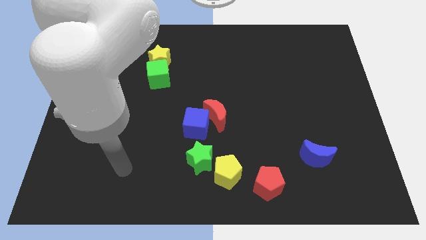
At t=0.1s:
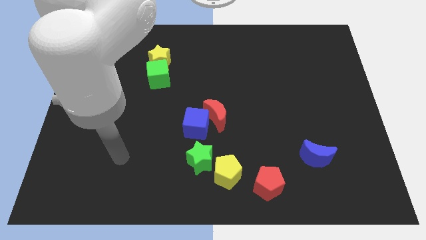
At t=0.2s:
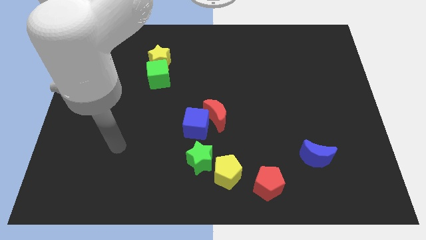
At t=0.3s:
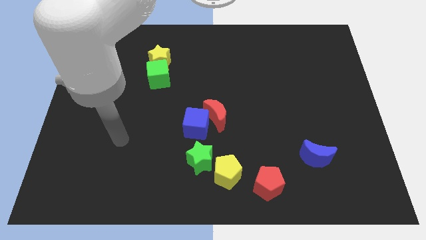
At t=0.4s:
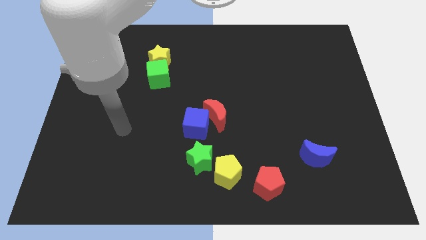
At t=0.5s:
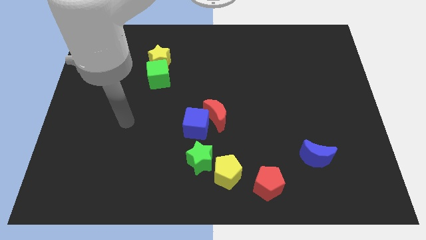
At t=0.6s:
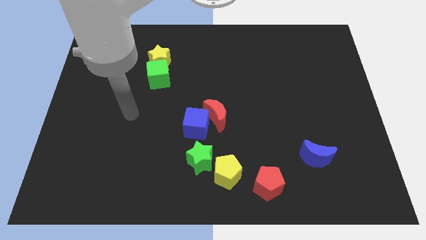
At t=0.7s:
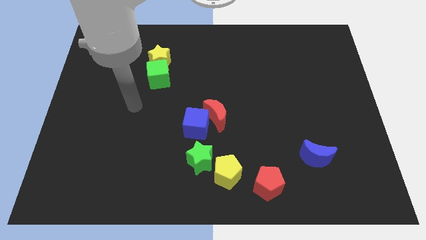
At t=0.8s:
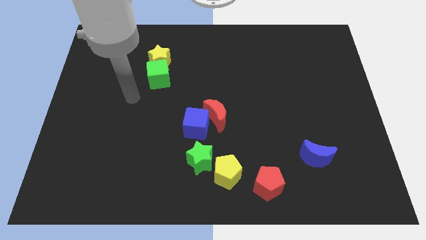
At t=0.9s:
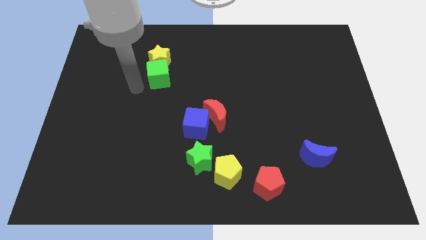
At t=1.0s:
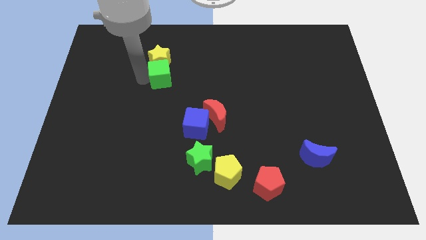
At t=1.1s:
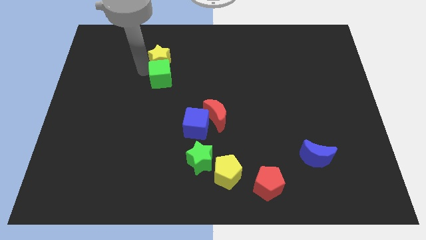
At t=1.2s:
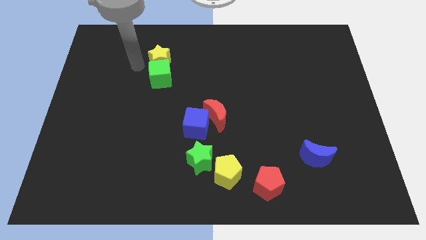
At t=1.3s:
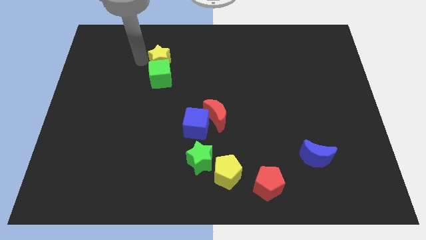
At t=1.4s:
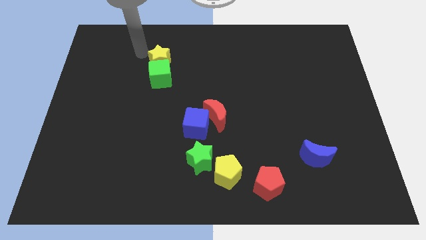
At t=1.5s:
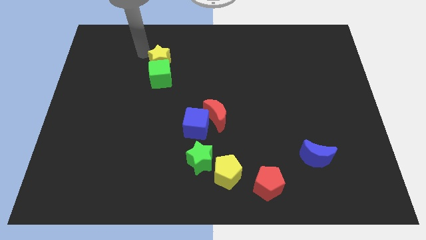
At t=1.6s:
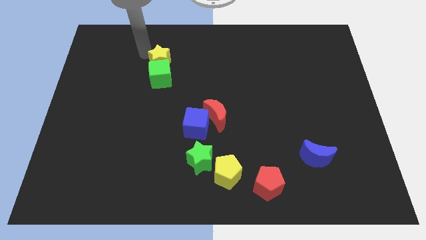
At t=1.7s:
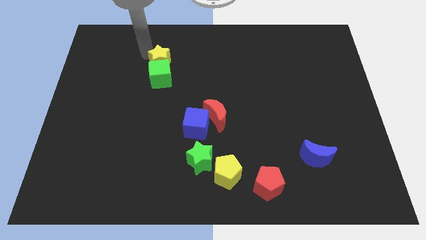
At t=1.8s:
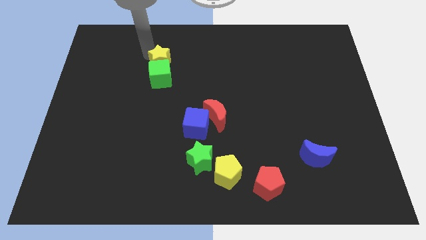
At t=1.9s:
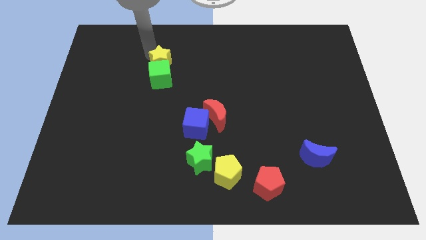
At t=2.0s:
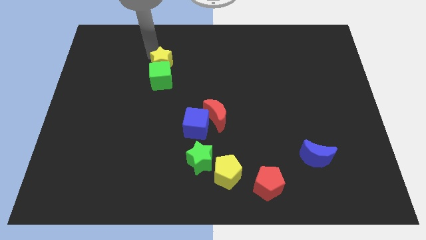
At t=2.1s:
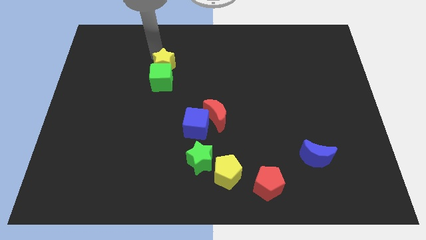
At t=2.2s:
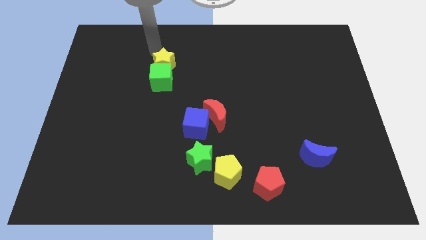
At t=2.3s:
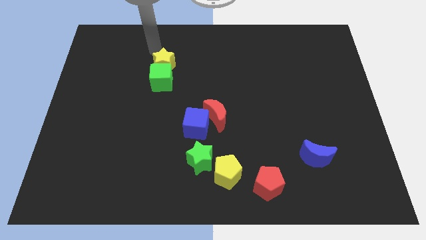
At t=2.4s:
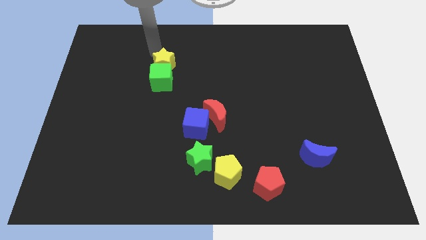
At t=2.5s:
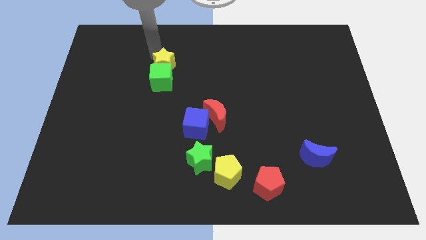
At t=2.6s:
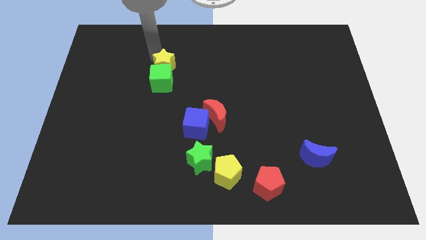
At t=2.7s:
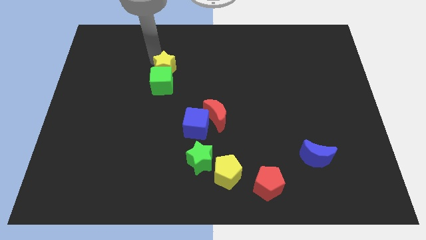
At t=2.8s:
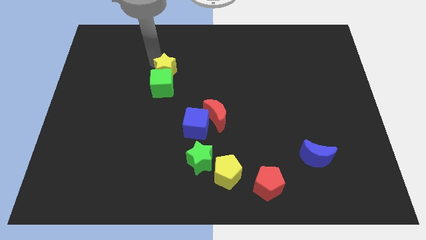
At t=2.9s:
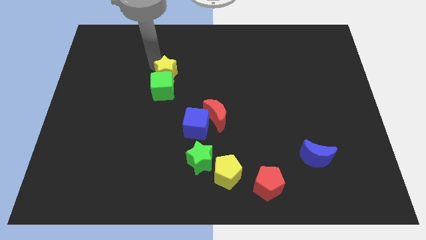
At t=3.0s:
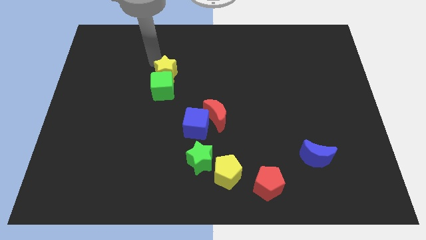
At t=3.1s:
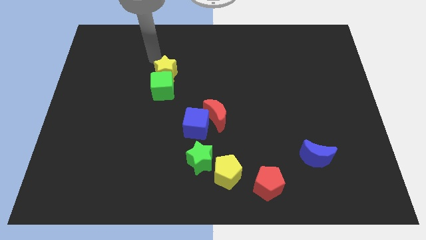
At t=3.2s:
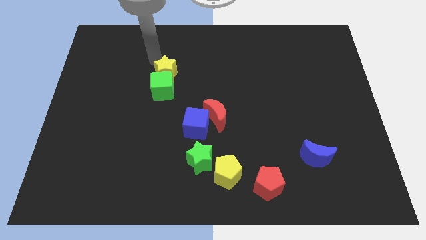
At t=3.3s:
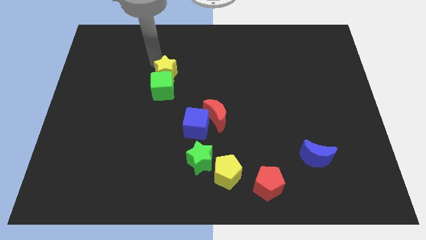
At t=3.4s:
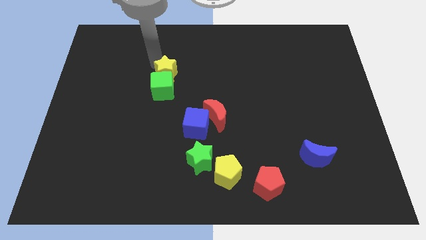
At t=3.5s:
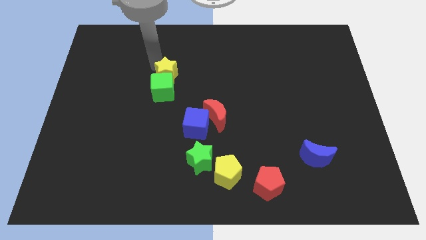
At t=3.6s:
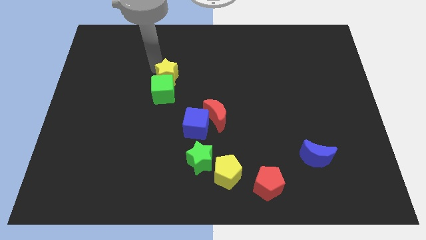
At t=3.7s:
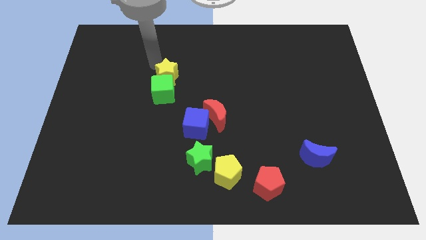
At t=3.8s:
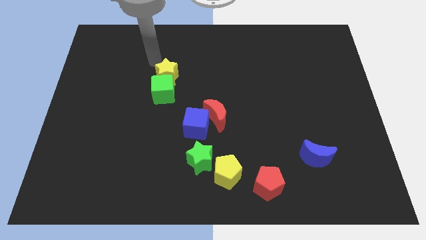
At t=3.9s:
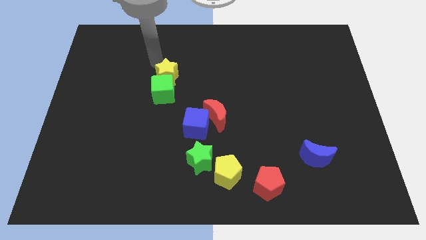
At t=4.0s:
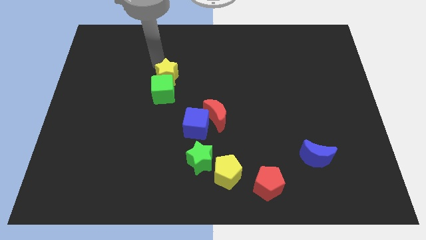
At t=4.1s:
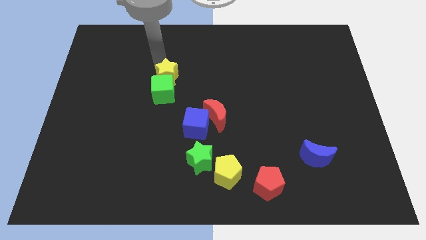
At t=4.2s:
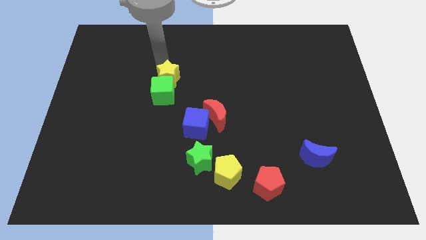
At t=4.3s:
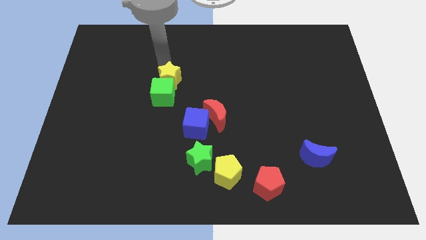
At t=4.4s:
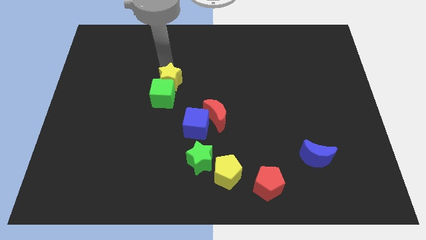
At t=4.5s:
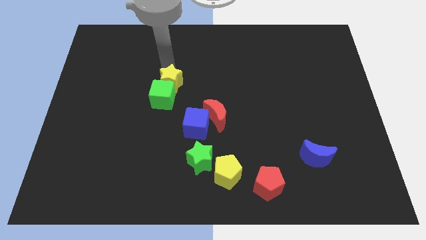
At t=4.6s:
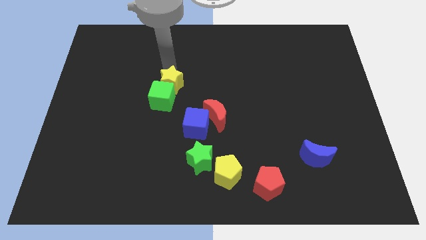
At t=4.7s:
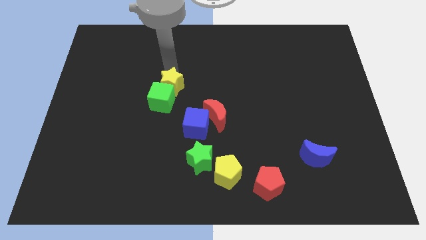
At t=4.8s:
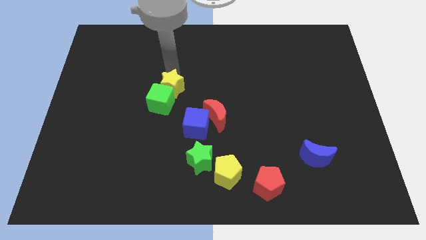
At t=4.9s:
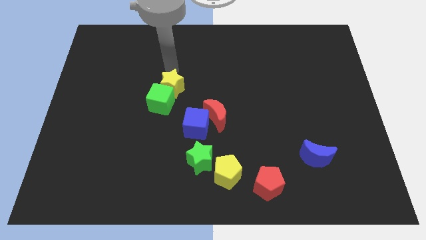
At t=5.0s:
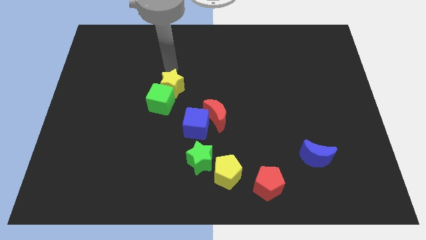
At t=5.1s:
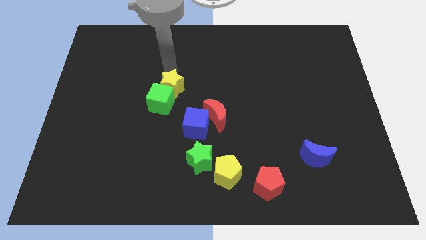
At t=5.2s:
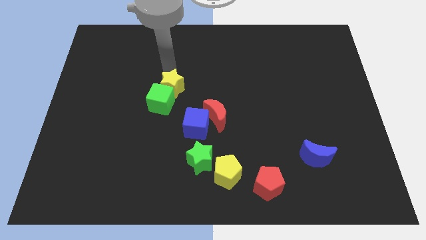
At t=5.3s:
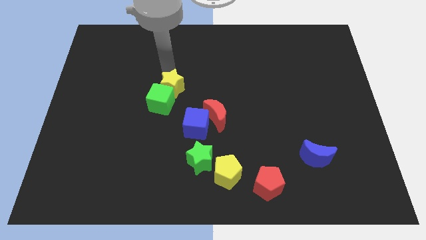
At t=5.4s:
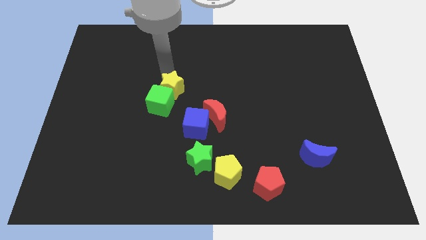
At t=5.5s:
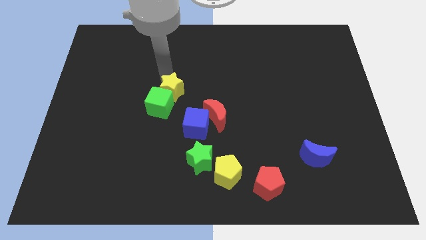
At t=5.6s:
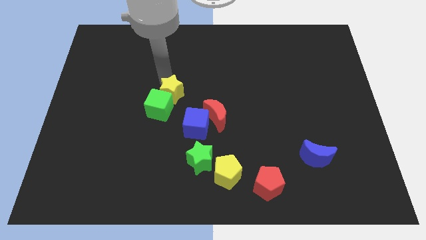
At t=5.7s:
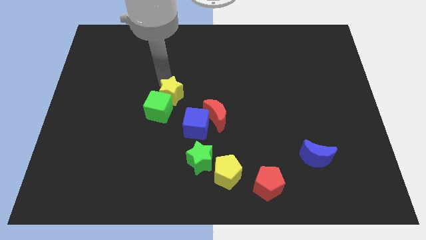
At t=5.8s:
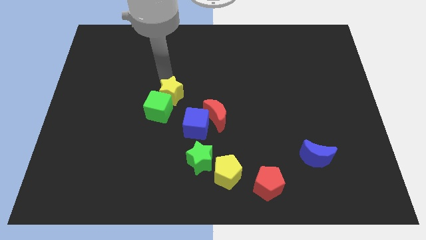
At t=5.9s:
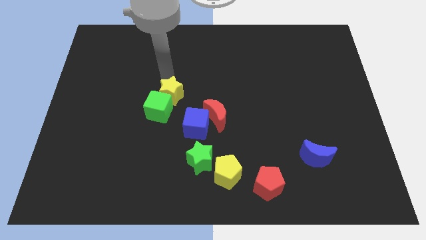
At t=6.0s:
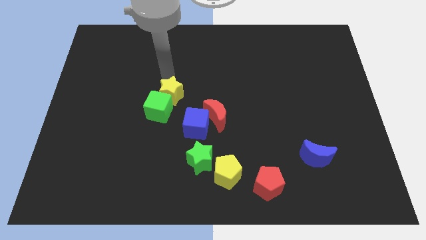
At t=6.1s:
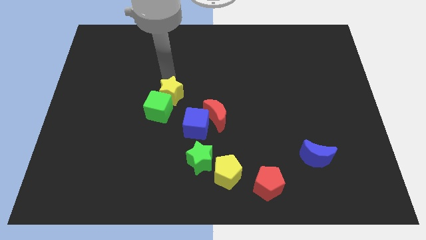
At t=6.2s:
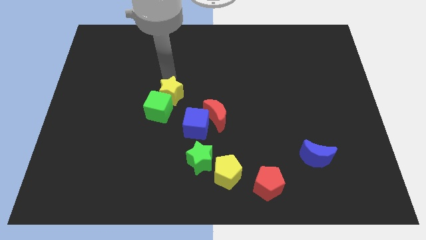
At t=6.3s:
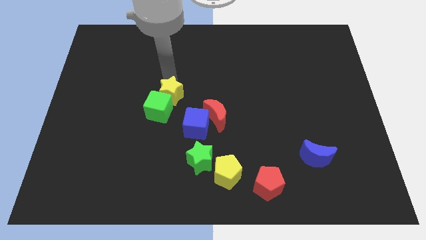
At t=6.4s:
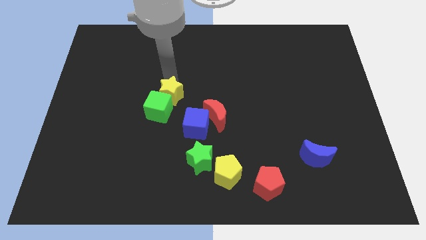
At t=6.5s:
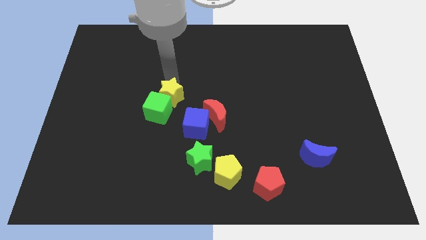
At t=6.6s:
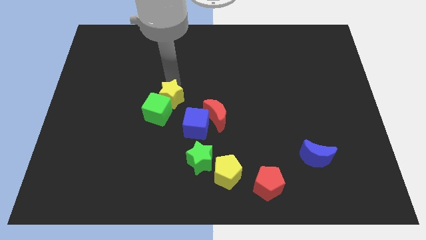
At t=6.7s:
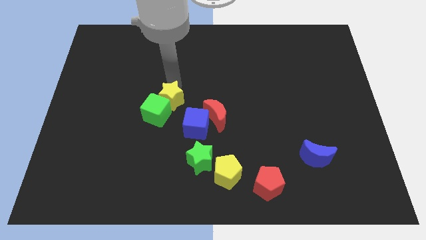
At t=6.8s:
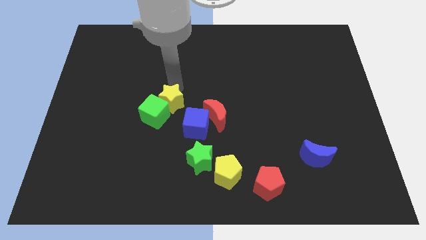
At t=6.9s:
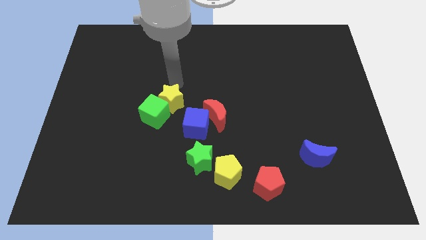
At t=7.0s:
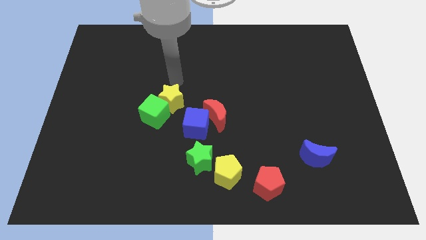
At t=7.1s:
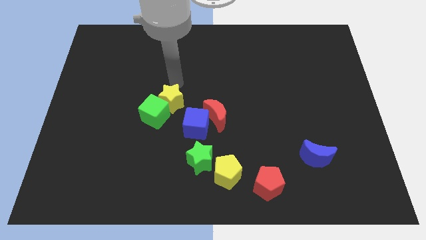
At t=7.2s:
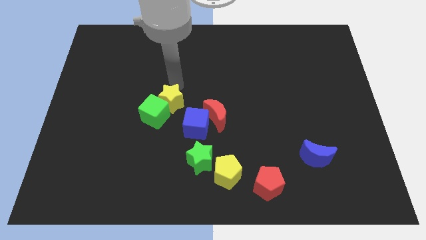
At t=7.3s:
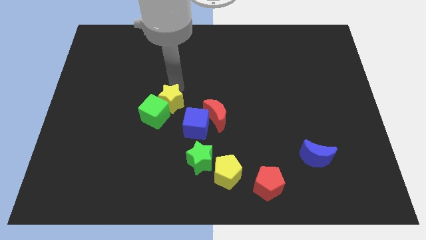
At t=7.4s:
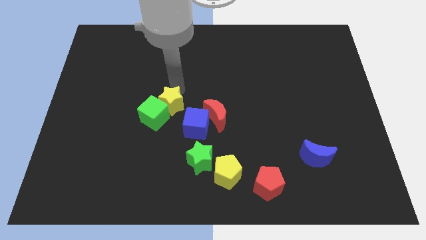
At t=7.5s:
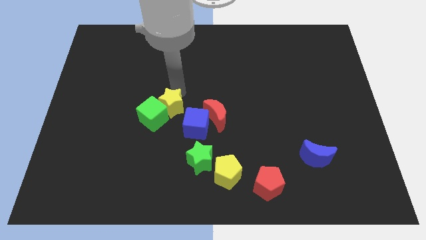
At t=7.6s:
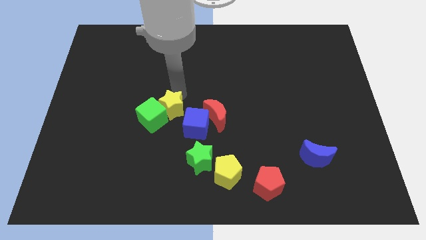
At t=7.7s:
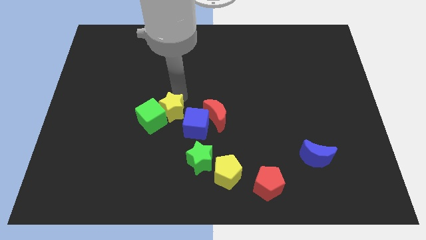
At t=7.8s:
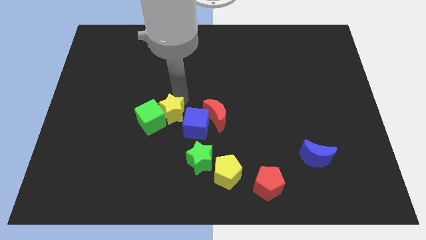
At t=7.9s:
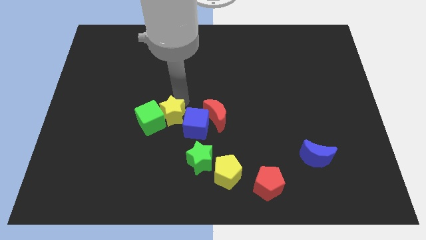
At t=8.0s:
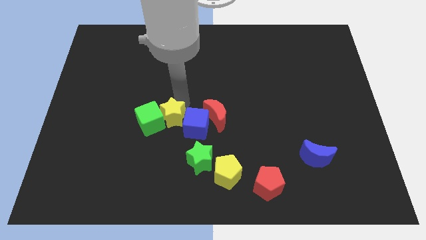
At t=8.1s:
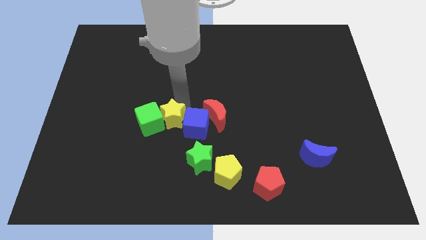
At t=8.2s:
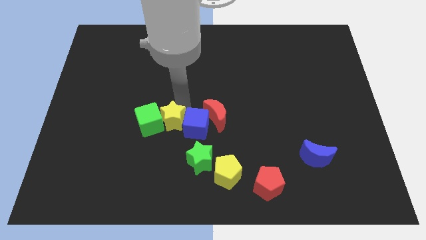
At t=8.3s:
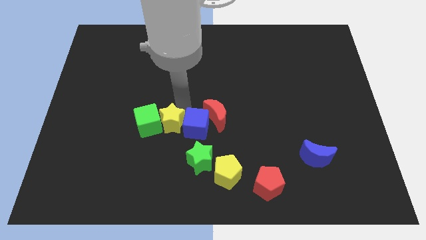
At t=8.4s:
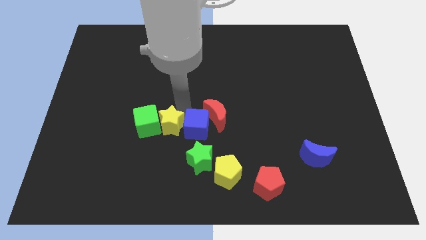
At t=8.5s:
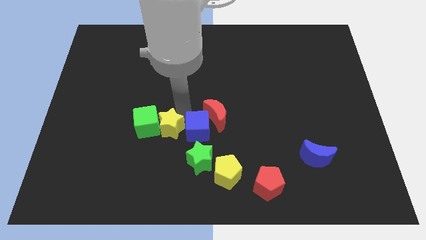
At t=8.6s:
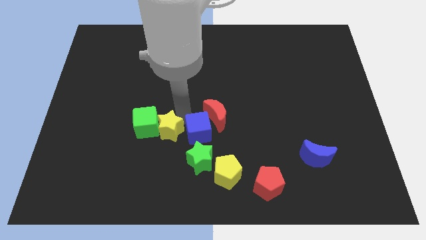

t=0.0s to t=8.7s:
push the yellow star down
